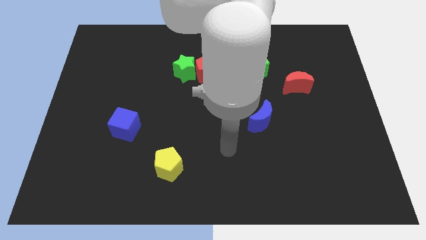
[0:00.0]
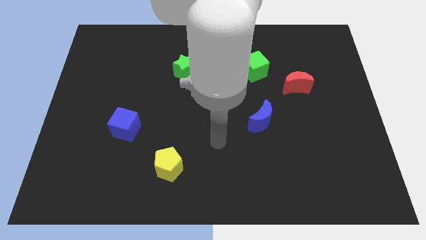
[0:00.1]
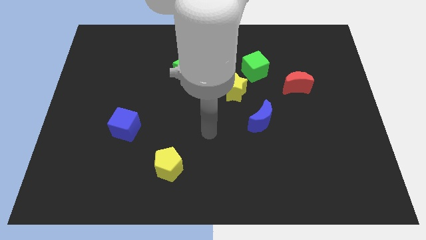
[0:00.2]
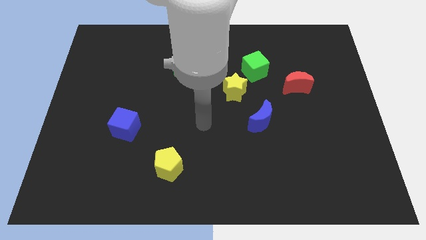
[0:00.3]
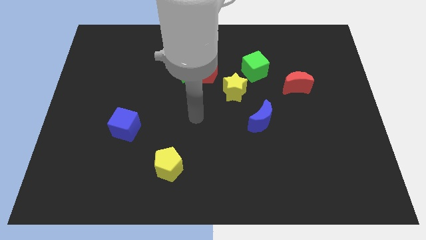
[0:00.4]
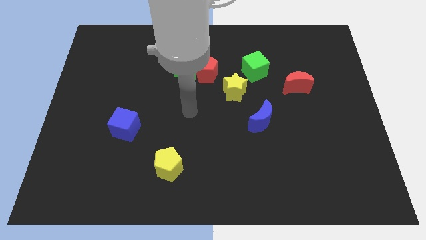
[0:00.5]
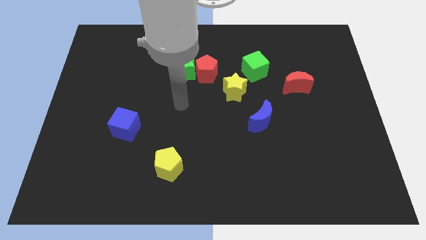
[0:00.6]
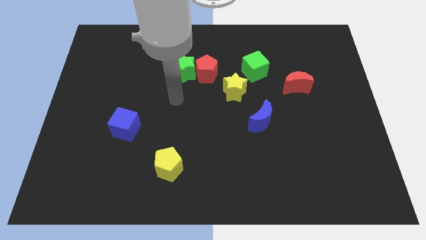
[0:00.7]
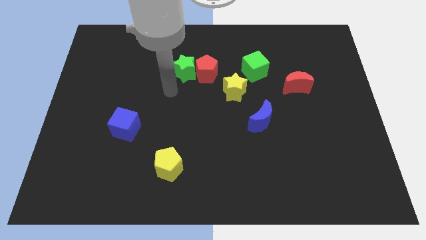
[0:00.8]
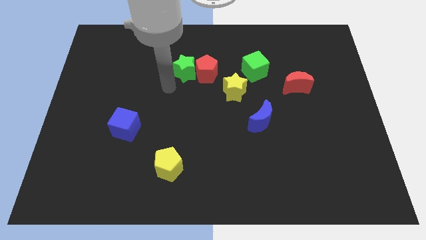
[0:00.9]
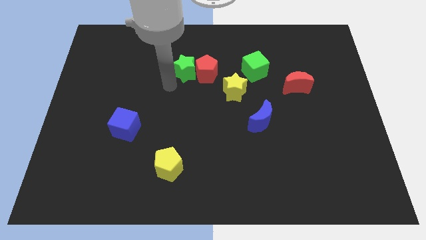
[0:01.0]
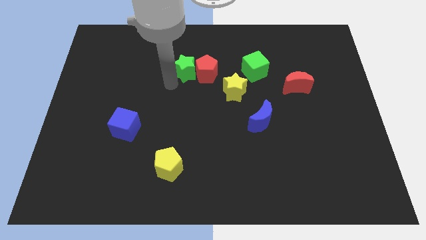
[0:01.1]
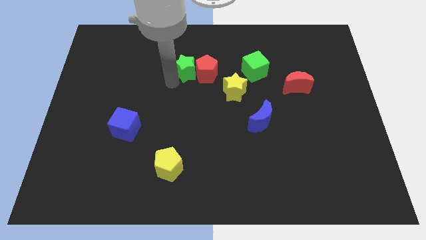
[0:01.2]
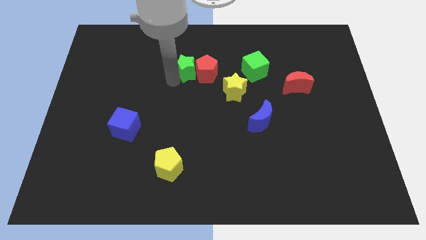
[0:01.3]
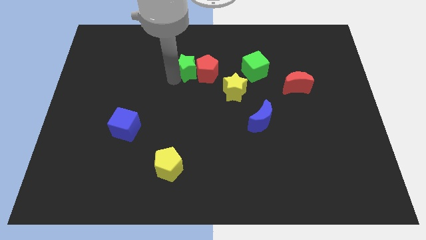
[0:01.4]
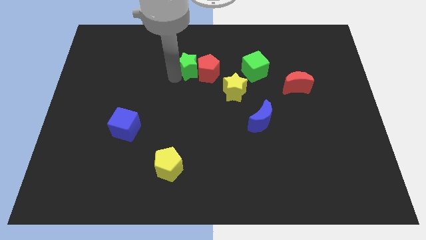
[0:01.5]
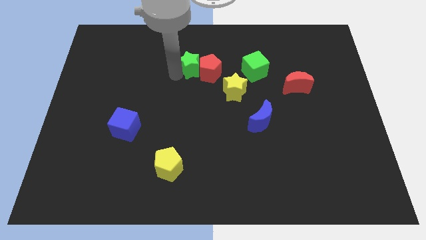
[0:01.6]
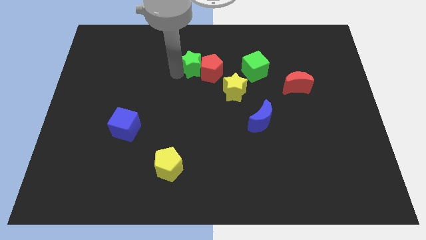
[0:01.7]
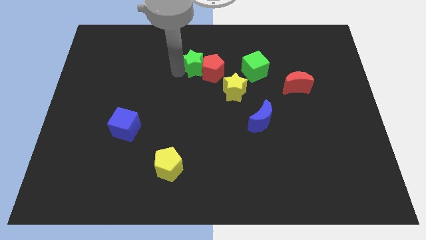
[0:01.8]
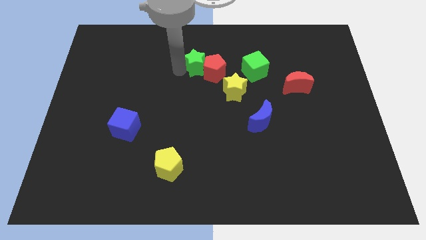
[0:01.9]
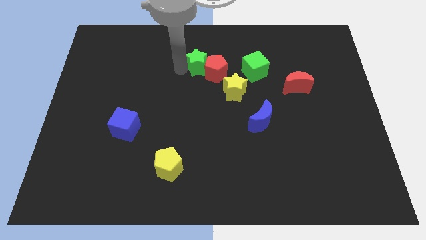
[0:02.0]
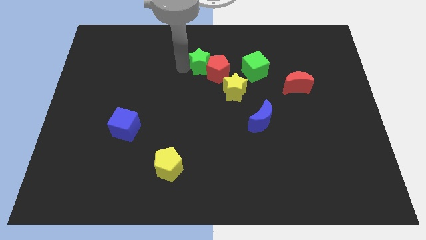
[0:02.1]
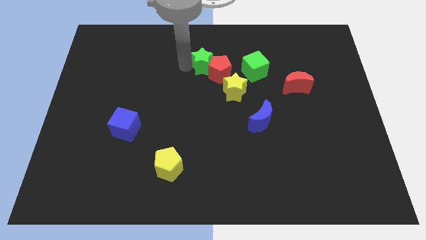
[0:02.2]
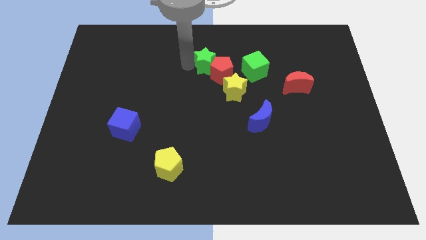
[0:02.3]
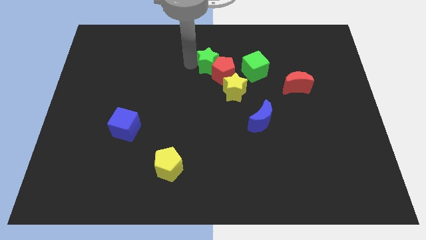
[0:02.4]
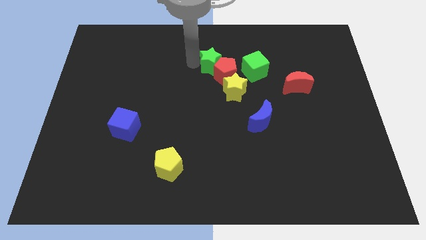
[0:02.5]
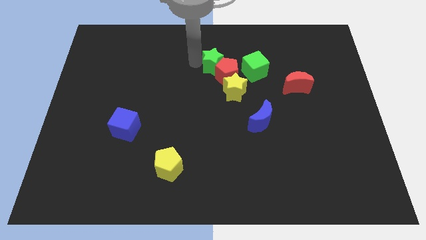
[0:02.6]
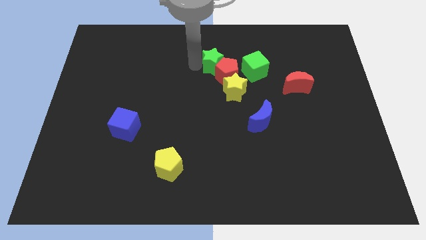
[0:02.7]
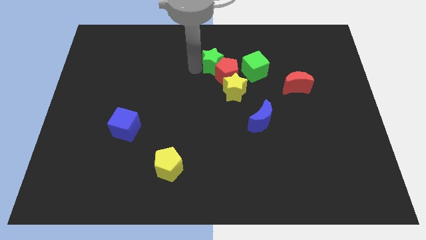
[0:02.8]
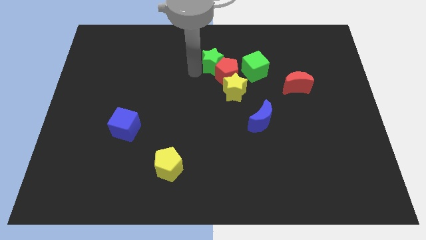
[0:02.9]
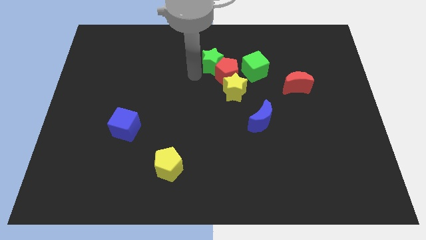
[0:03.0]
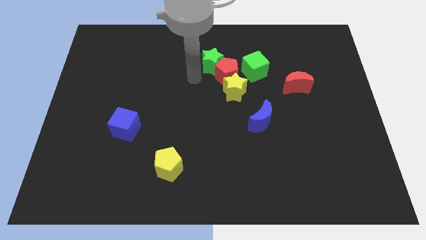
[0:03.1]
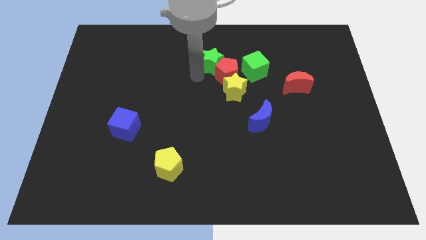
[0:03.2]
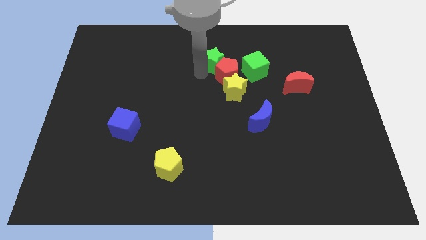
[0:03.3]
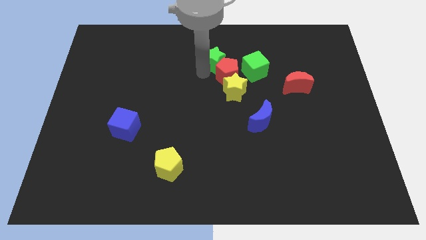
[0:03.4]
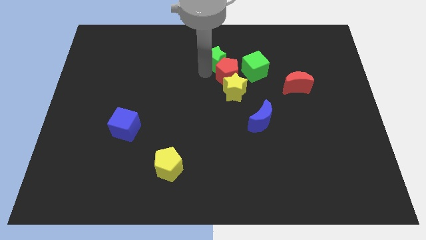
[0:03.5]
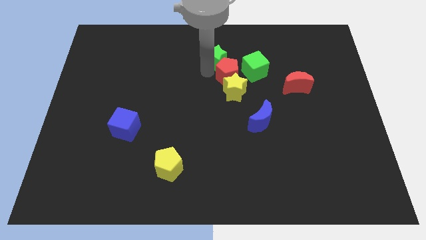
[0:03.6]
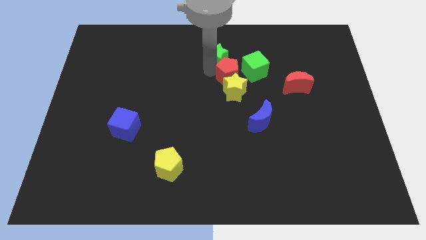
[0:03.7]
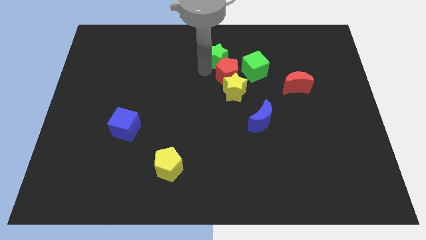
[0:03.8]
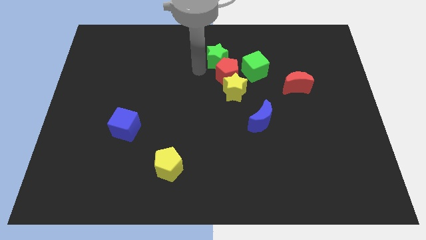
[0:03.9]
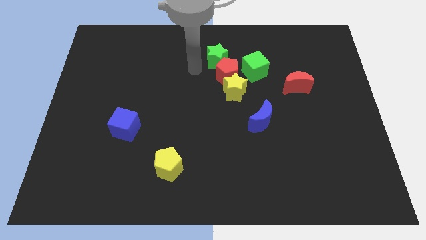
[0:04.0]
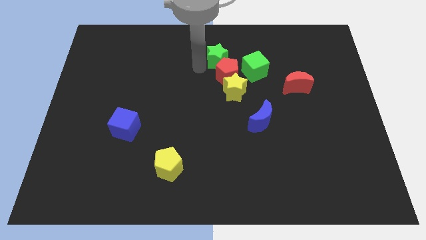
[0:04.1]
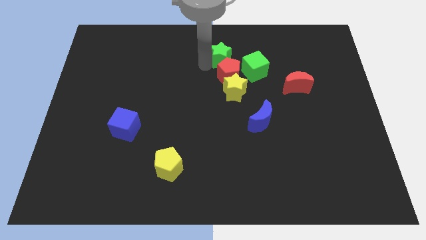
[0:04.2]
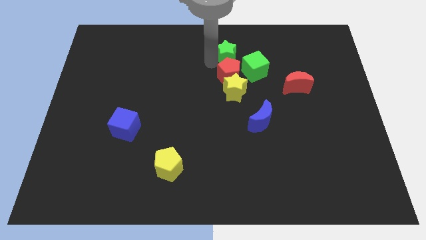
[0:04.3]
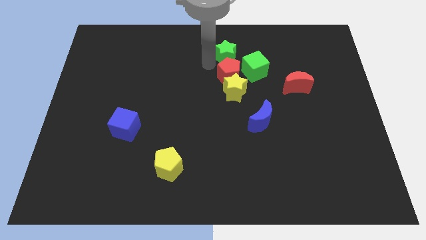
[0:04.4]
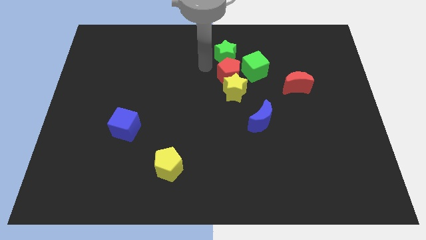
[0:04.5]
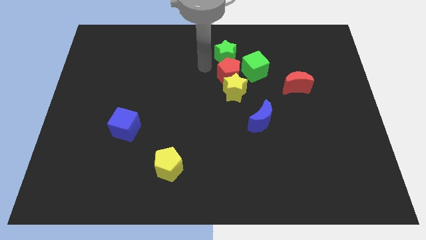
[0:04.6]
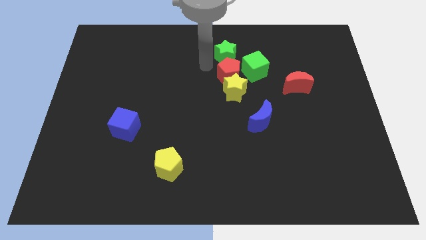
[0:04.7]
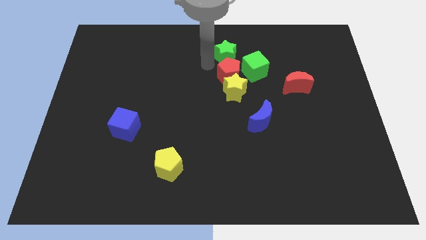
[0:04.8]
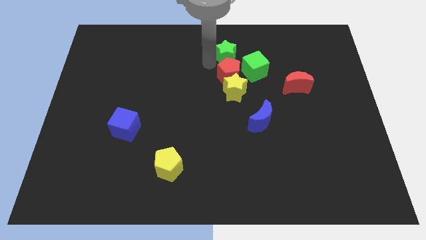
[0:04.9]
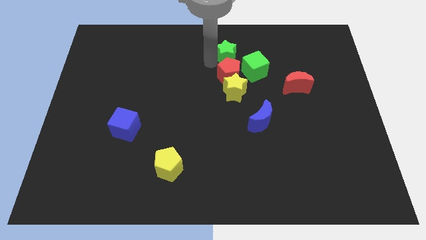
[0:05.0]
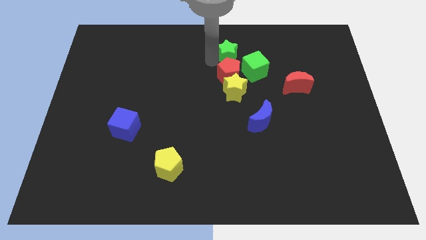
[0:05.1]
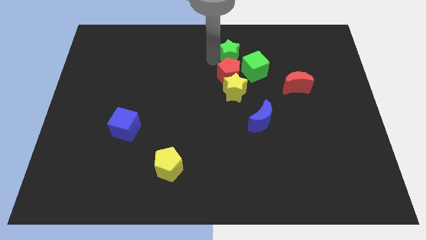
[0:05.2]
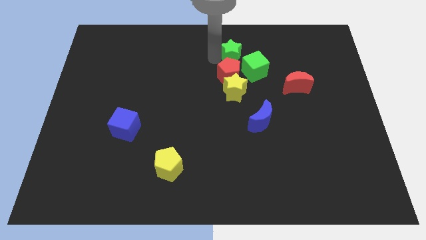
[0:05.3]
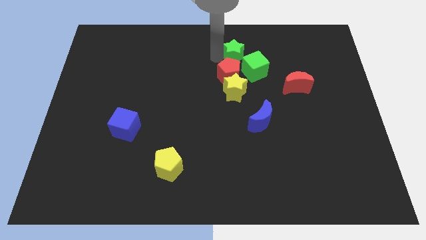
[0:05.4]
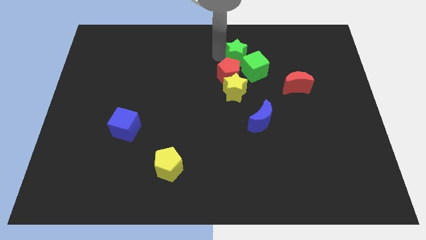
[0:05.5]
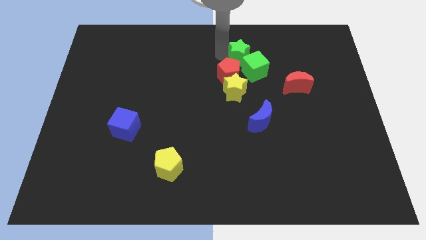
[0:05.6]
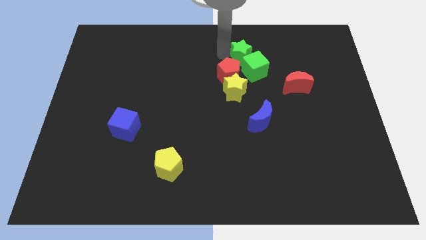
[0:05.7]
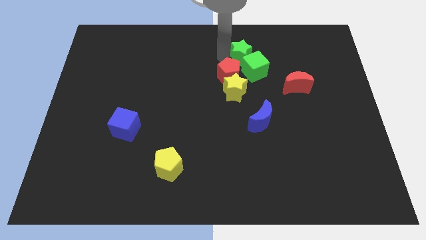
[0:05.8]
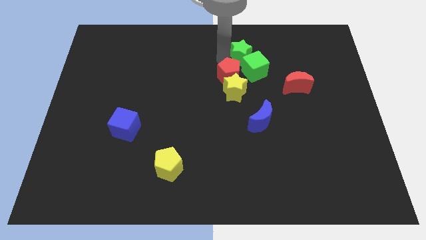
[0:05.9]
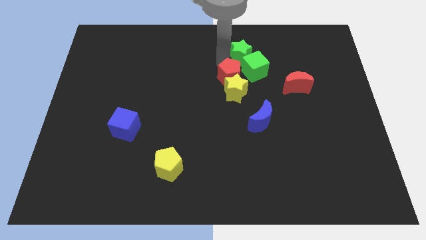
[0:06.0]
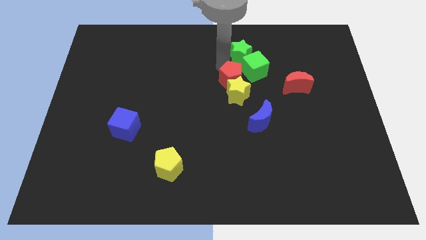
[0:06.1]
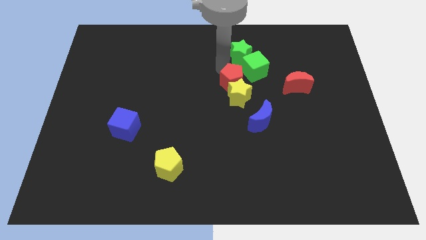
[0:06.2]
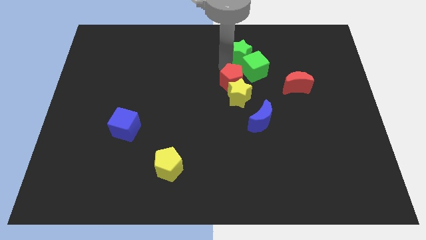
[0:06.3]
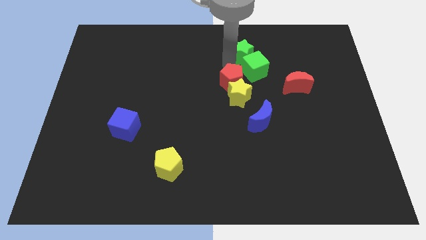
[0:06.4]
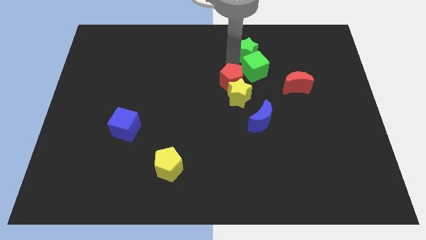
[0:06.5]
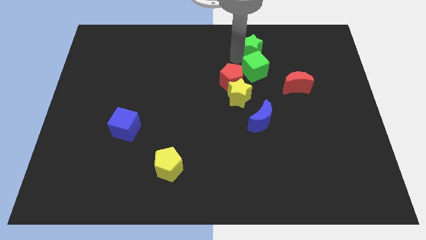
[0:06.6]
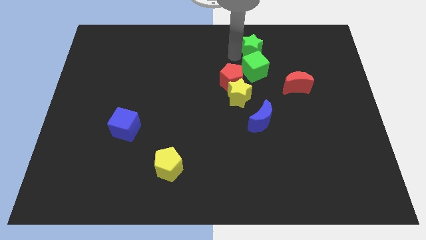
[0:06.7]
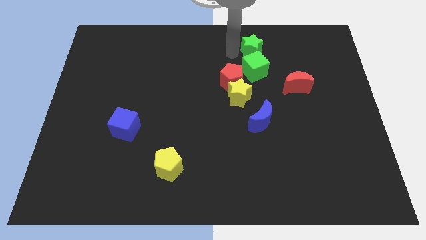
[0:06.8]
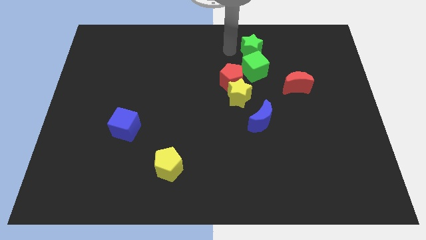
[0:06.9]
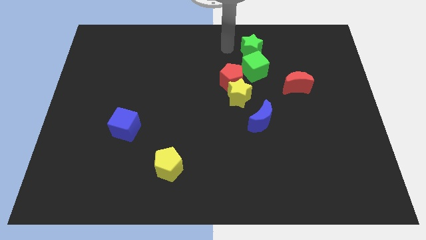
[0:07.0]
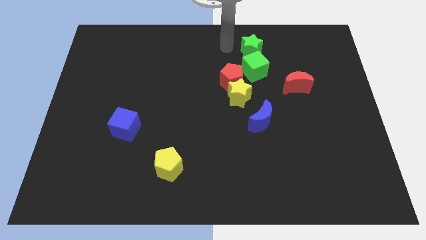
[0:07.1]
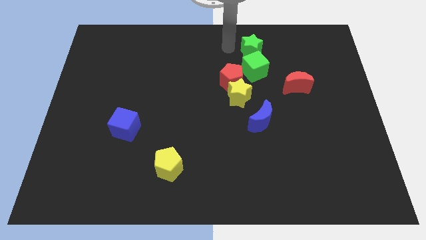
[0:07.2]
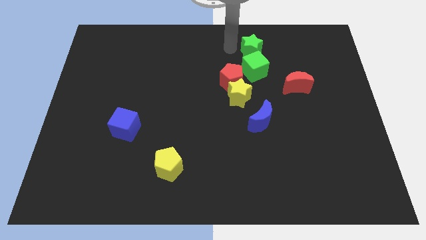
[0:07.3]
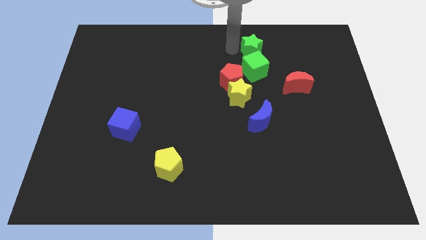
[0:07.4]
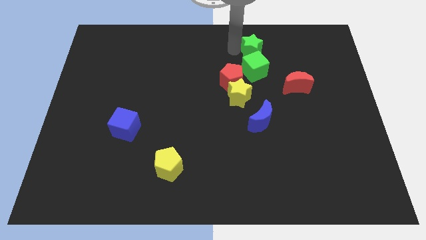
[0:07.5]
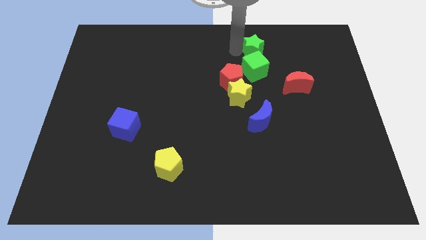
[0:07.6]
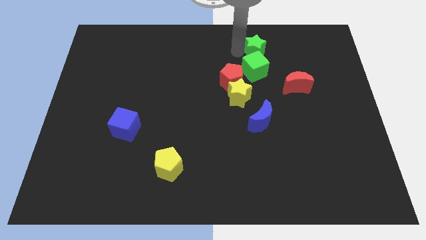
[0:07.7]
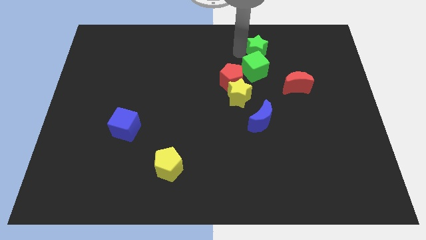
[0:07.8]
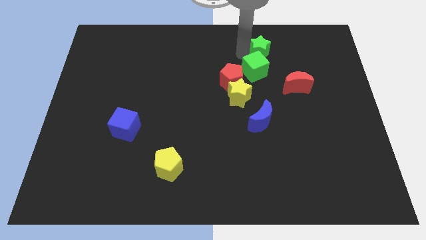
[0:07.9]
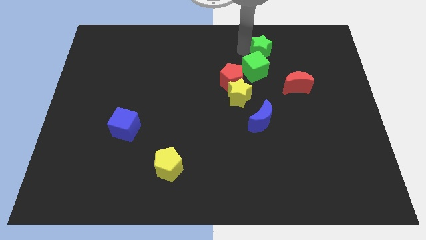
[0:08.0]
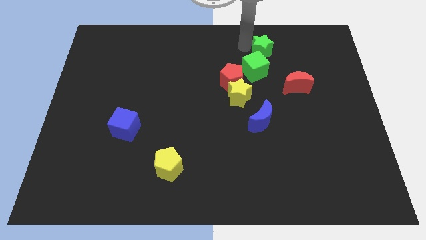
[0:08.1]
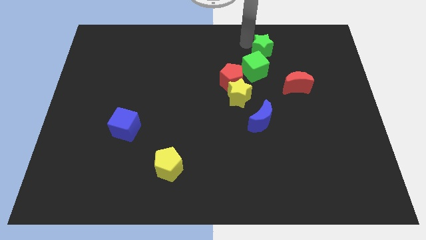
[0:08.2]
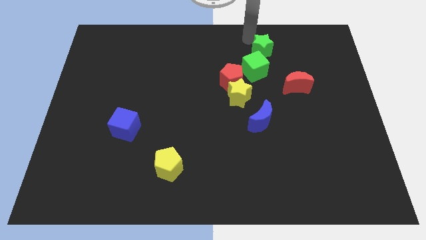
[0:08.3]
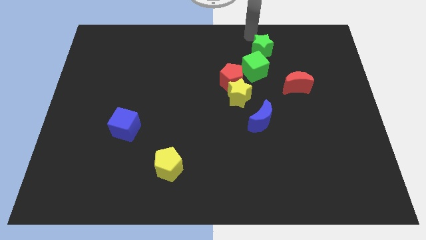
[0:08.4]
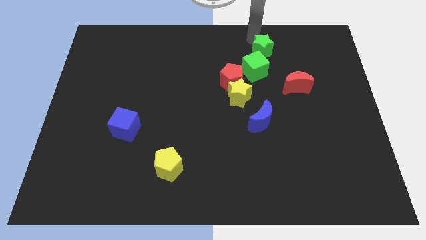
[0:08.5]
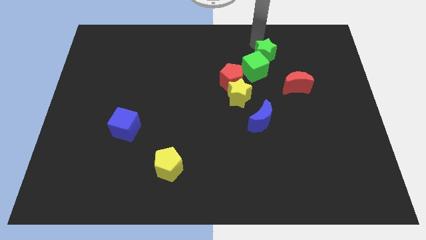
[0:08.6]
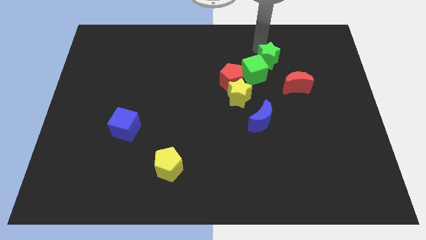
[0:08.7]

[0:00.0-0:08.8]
slide the green star diagonally up and to the left of the red moon
